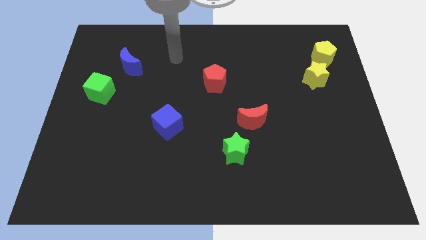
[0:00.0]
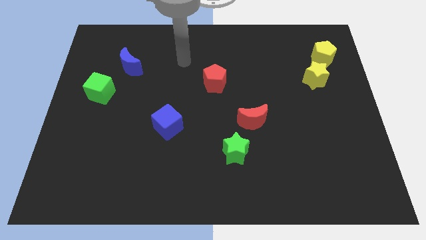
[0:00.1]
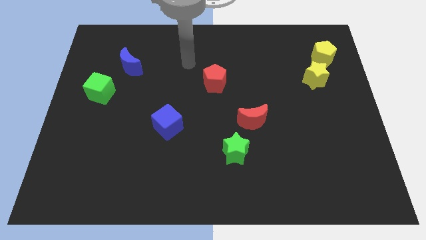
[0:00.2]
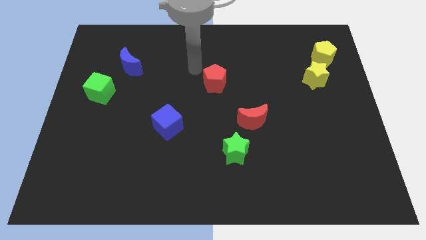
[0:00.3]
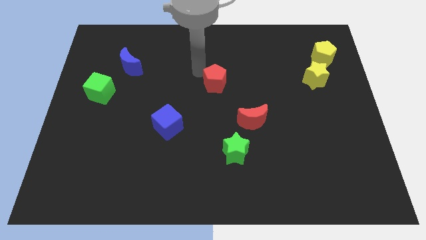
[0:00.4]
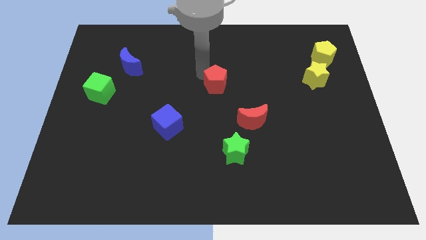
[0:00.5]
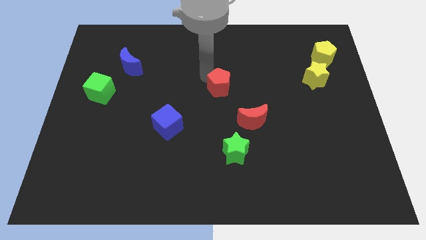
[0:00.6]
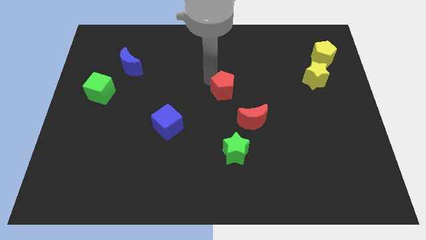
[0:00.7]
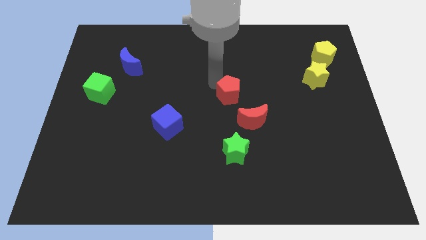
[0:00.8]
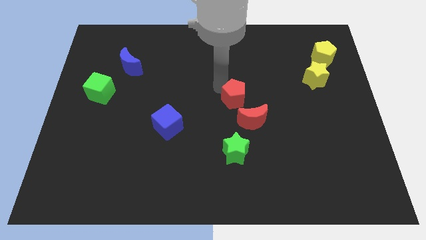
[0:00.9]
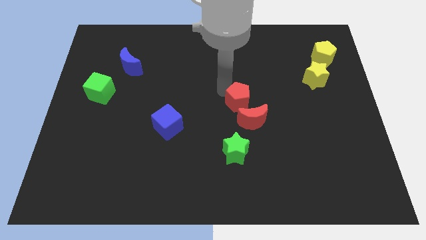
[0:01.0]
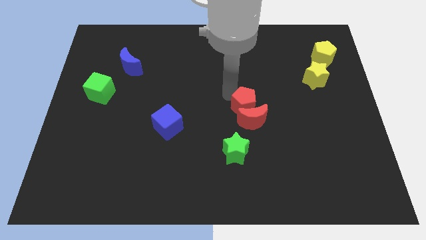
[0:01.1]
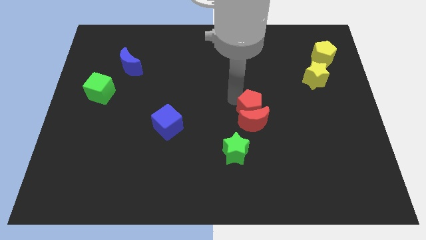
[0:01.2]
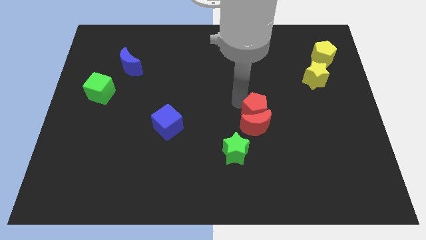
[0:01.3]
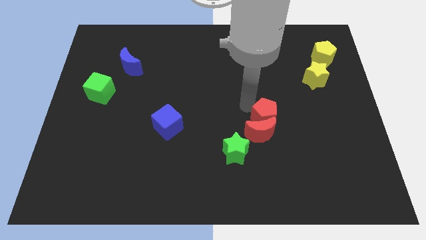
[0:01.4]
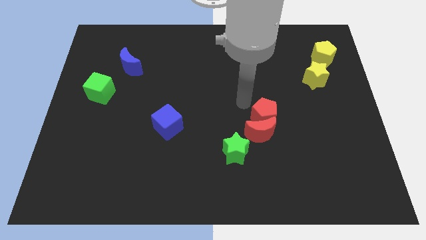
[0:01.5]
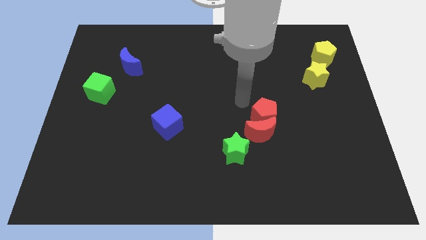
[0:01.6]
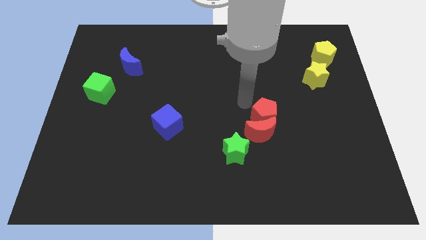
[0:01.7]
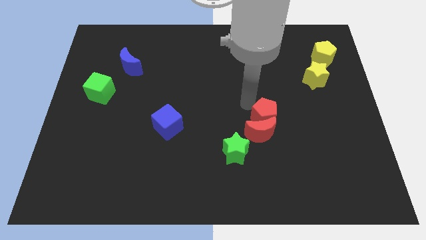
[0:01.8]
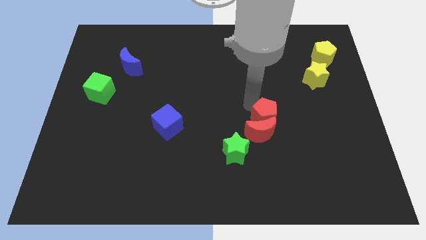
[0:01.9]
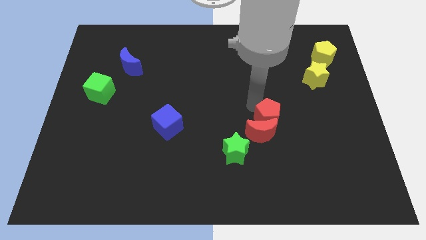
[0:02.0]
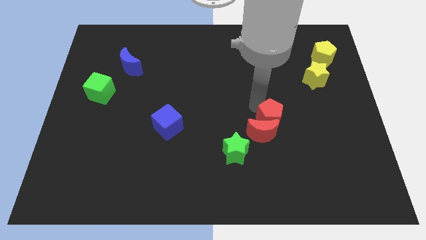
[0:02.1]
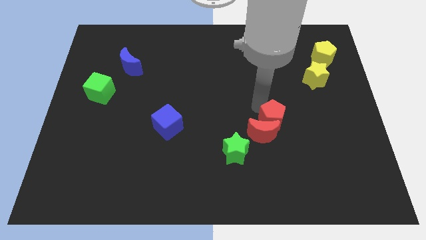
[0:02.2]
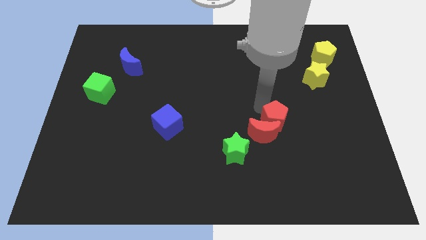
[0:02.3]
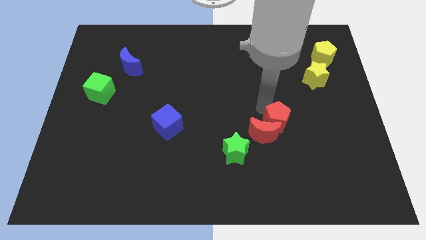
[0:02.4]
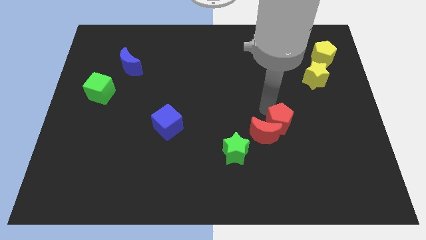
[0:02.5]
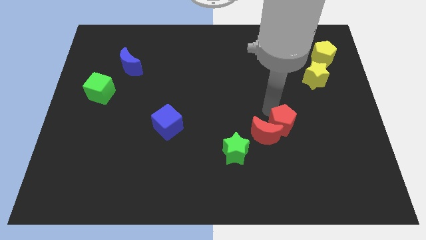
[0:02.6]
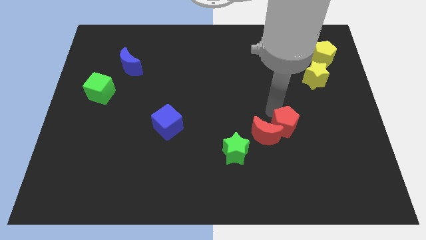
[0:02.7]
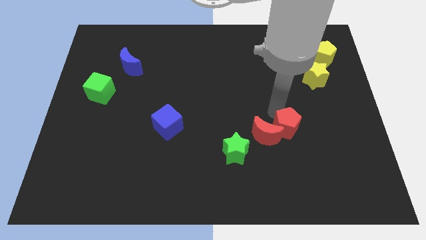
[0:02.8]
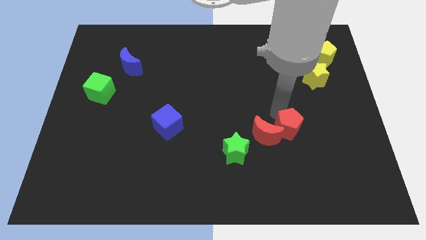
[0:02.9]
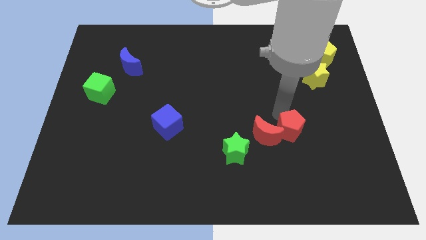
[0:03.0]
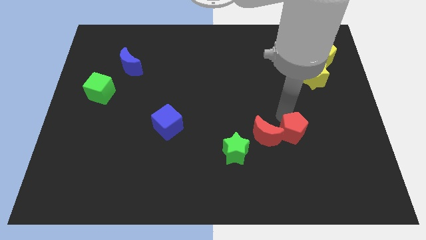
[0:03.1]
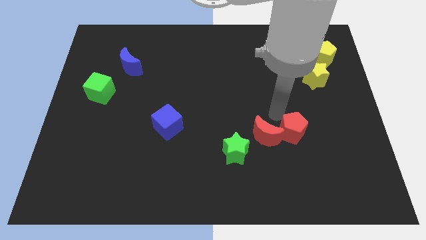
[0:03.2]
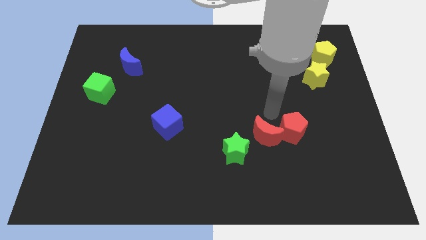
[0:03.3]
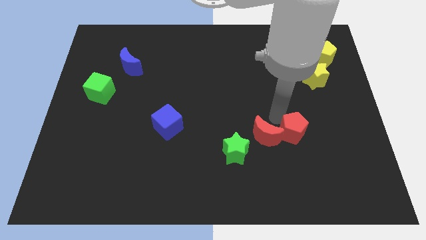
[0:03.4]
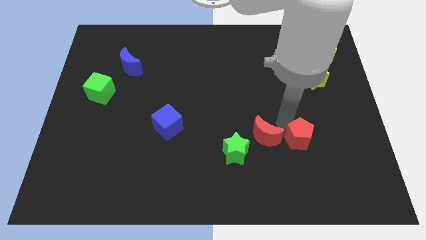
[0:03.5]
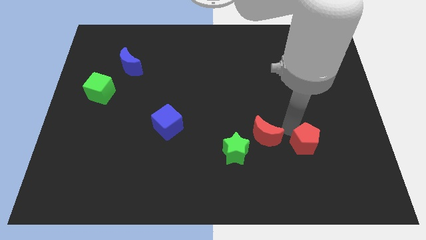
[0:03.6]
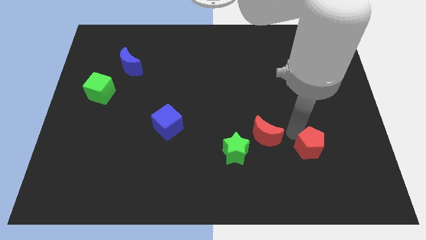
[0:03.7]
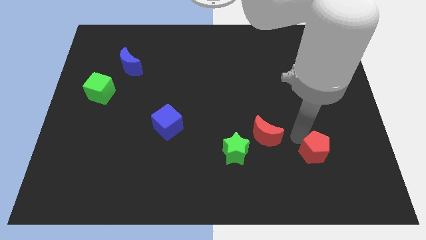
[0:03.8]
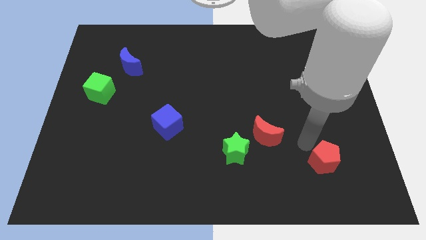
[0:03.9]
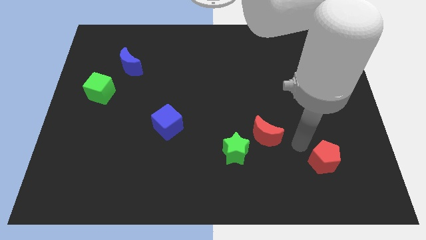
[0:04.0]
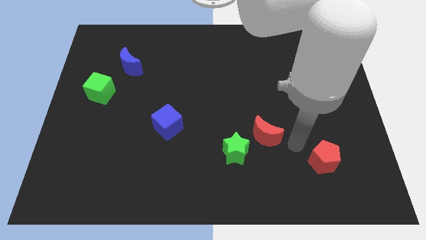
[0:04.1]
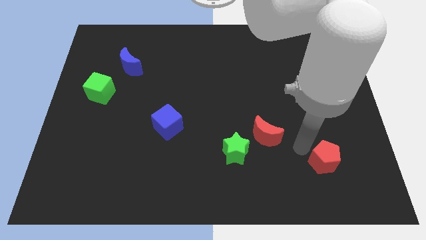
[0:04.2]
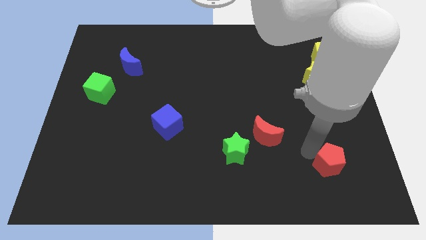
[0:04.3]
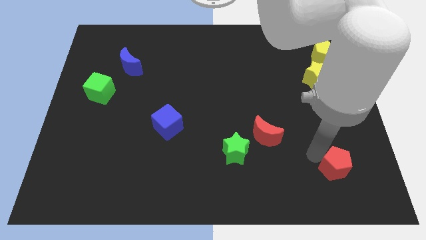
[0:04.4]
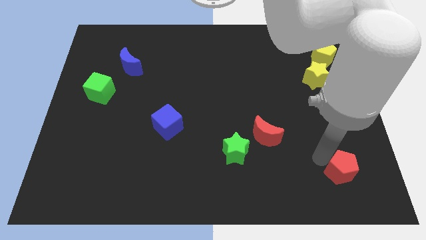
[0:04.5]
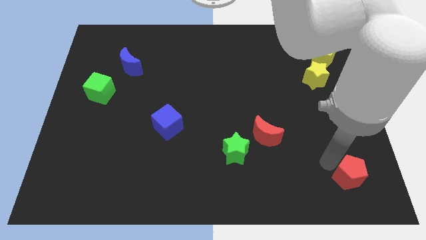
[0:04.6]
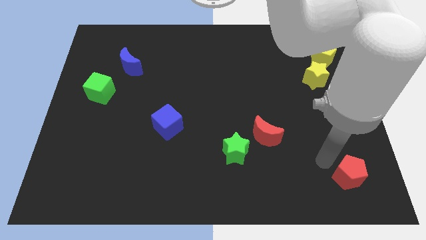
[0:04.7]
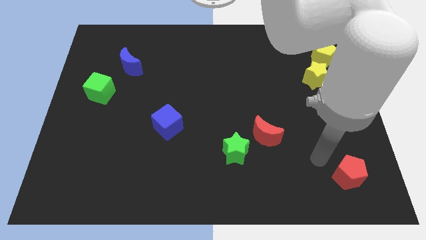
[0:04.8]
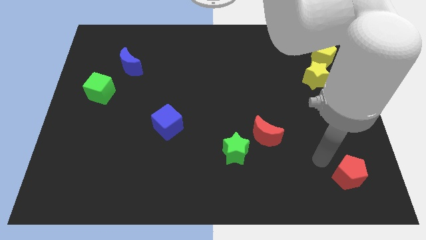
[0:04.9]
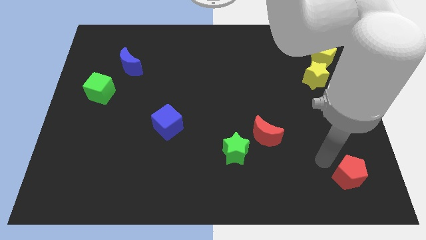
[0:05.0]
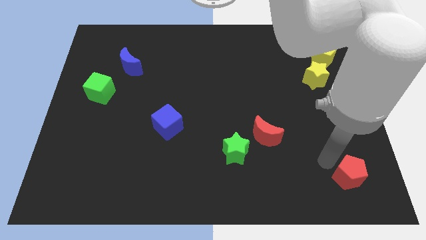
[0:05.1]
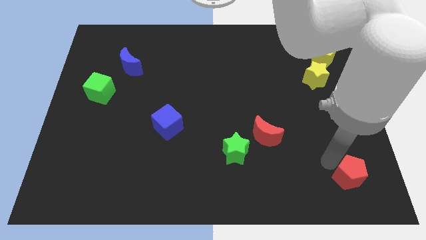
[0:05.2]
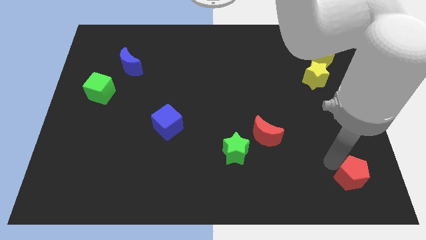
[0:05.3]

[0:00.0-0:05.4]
move the red pentagon to the lower right corner

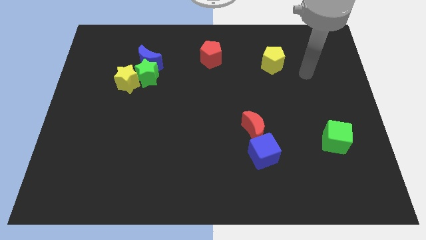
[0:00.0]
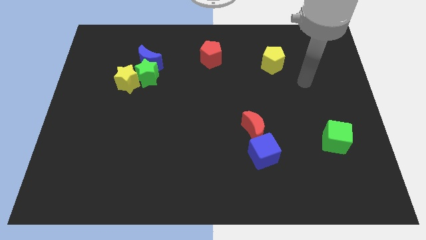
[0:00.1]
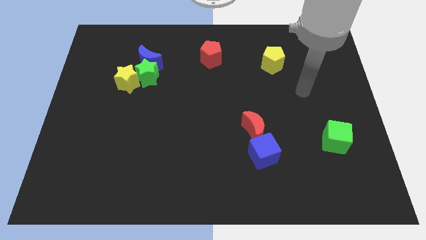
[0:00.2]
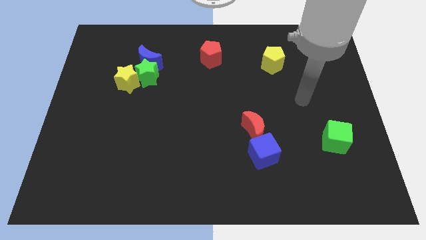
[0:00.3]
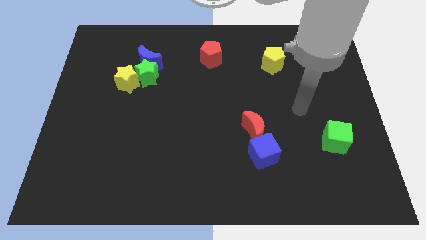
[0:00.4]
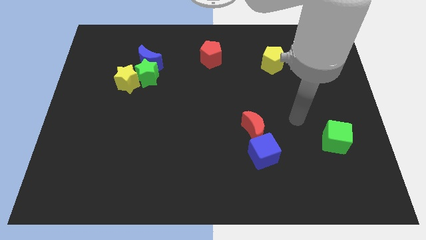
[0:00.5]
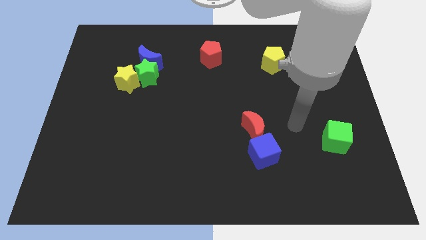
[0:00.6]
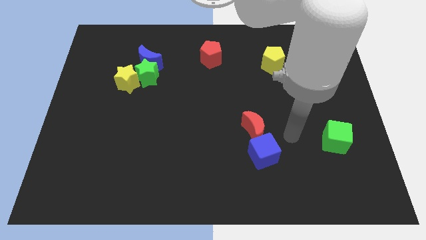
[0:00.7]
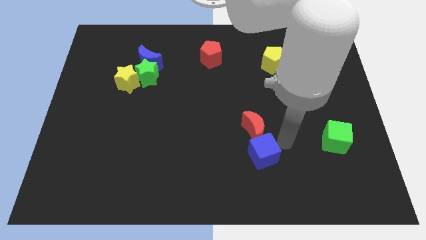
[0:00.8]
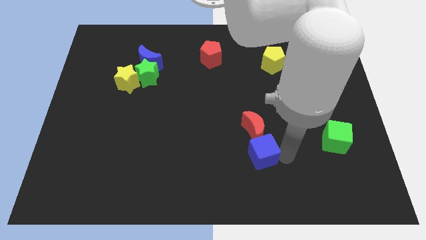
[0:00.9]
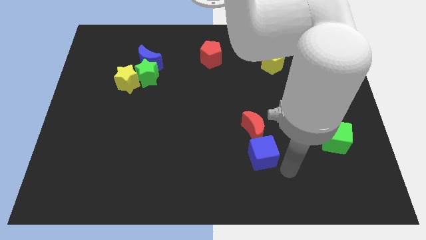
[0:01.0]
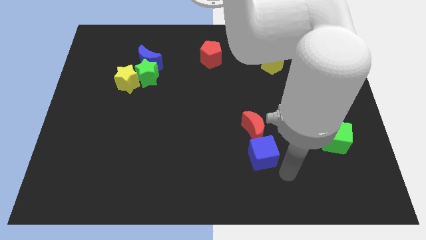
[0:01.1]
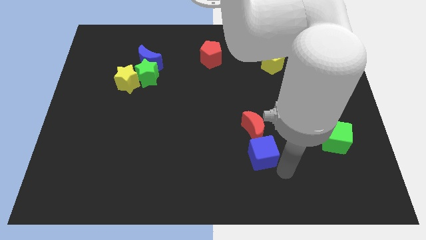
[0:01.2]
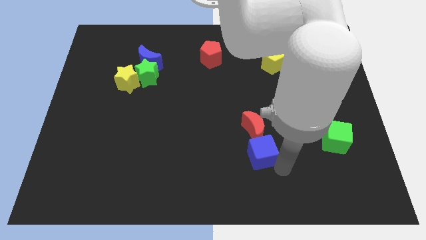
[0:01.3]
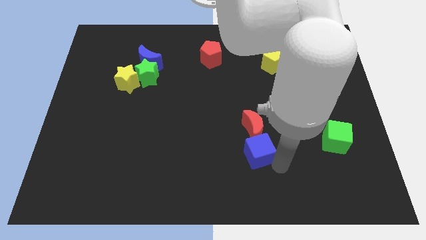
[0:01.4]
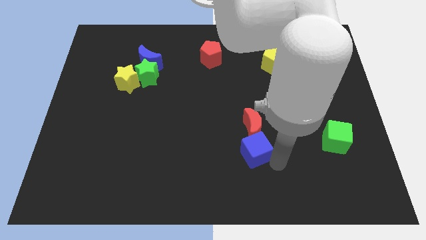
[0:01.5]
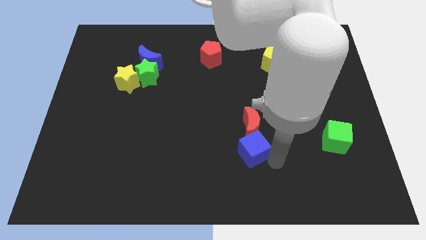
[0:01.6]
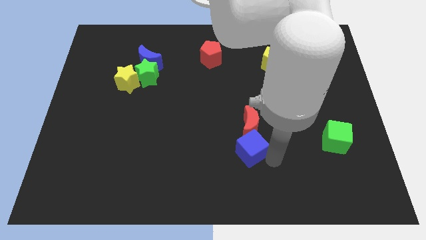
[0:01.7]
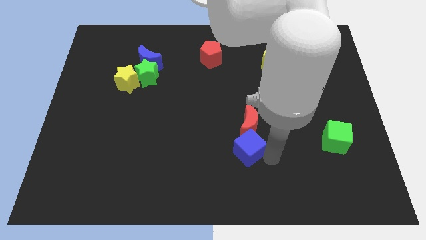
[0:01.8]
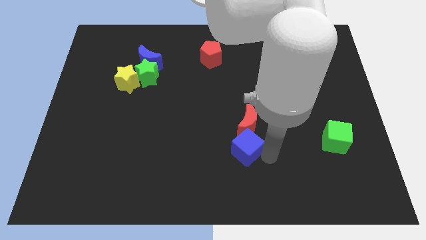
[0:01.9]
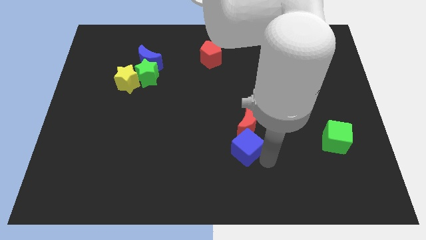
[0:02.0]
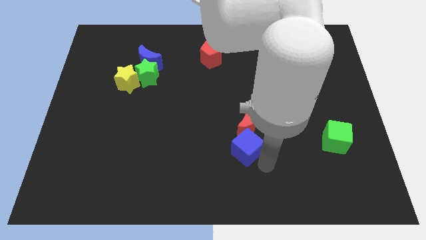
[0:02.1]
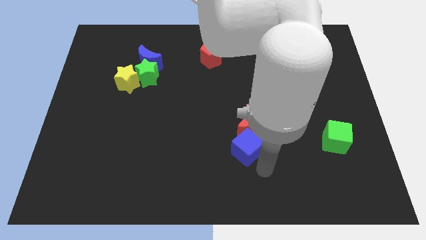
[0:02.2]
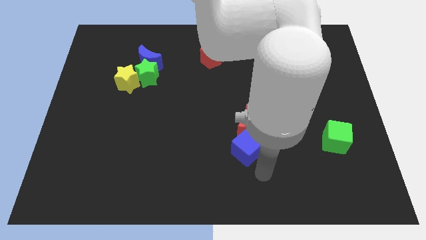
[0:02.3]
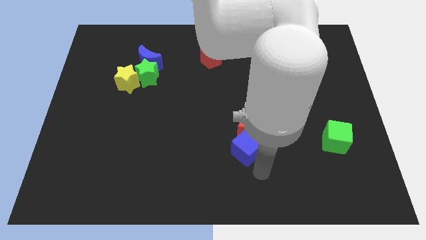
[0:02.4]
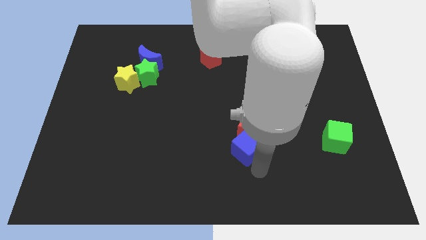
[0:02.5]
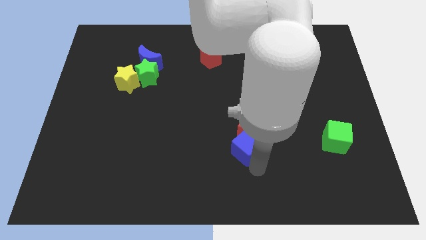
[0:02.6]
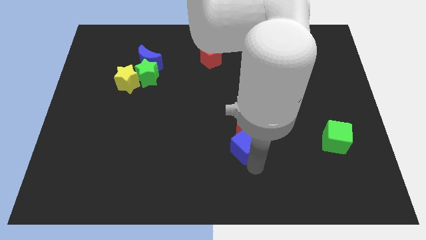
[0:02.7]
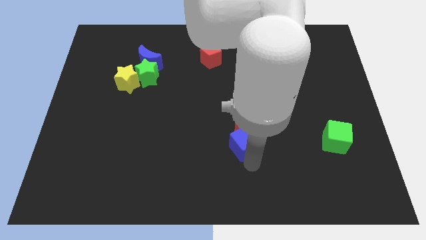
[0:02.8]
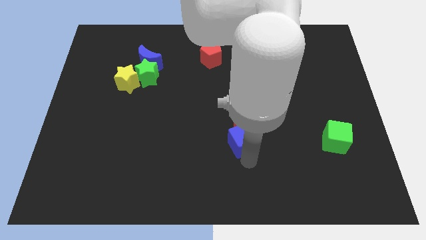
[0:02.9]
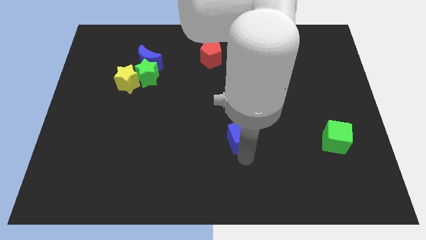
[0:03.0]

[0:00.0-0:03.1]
push the blue cube to the middle
